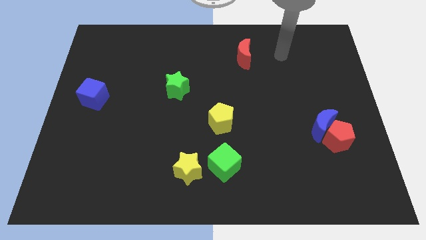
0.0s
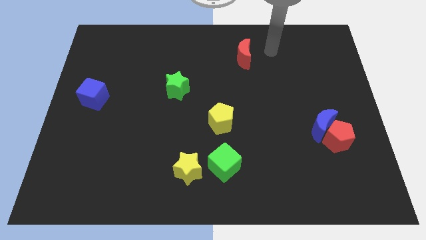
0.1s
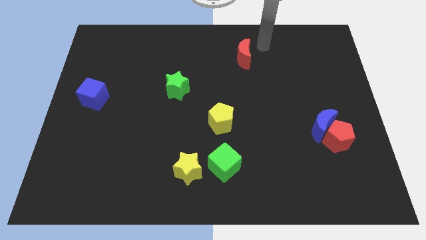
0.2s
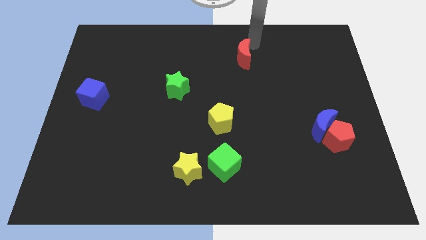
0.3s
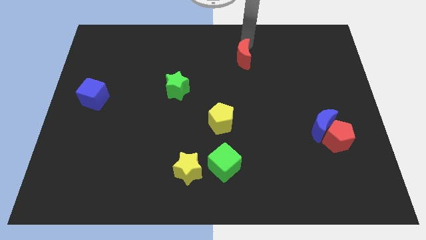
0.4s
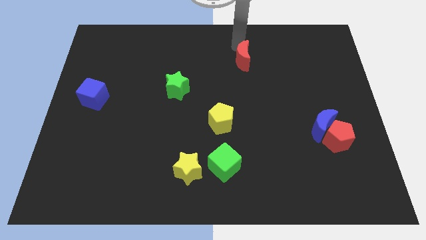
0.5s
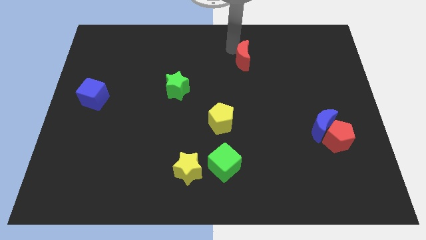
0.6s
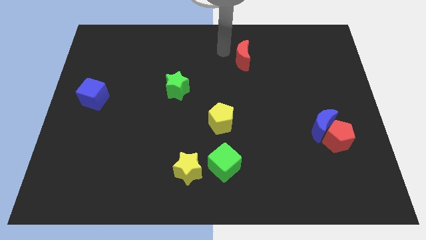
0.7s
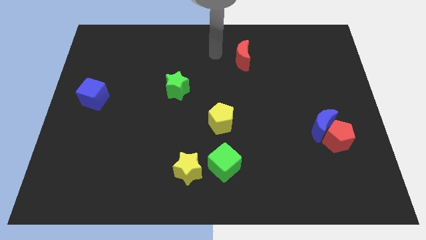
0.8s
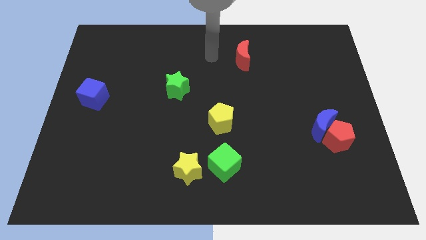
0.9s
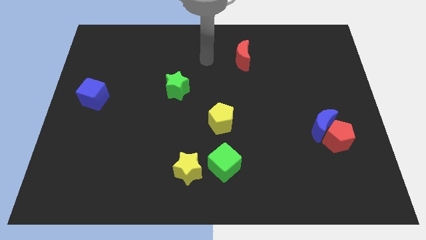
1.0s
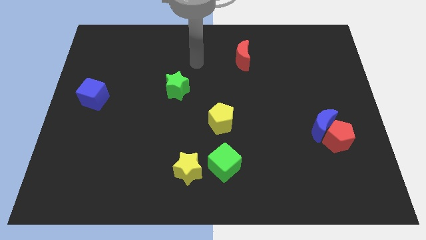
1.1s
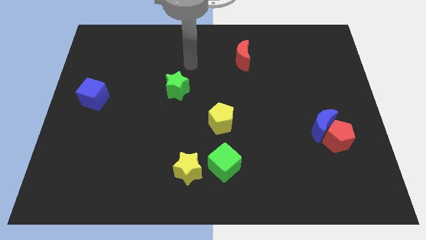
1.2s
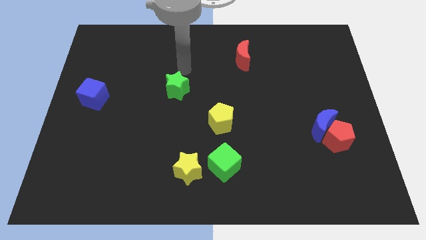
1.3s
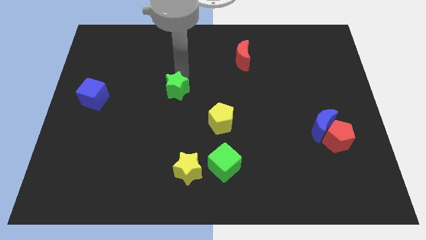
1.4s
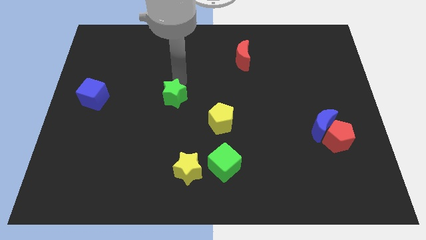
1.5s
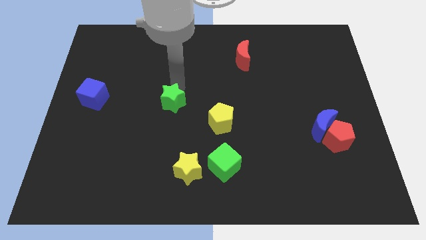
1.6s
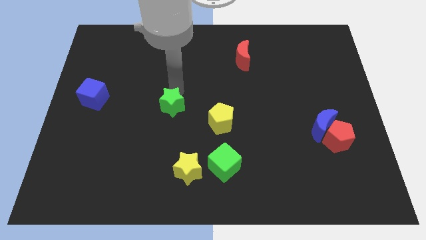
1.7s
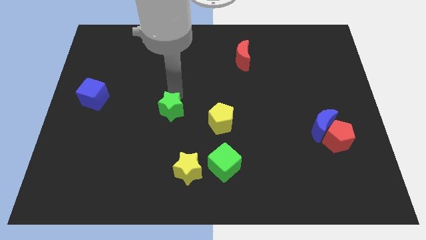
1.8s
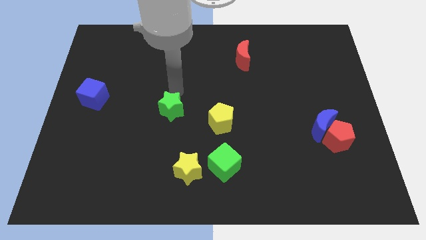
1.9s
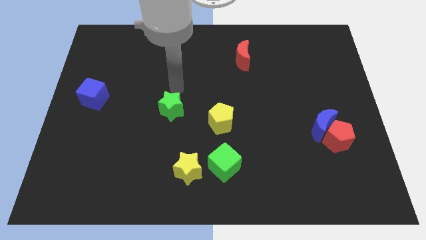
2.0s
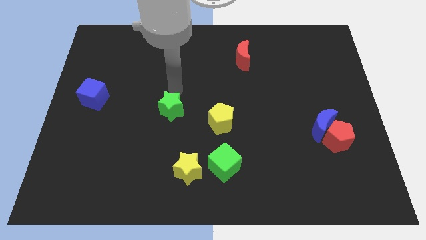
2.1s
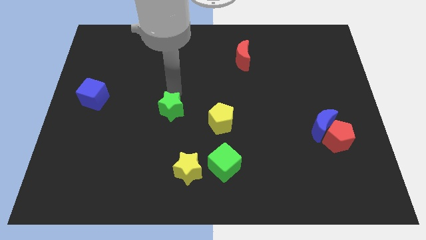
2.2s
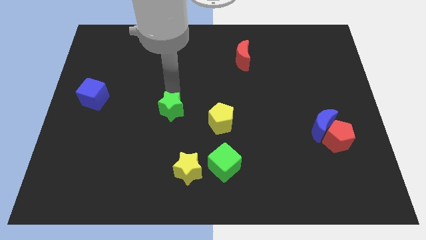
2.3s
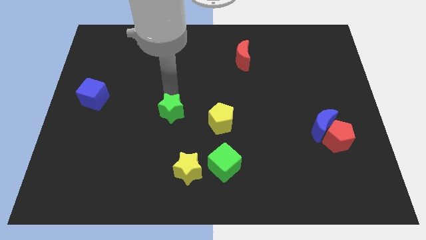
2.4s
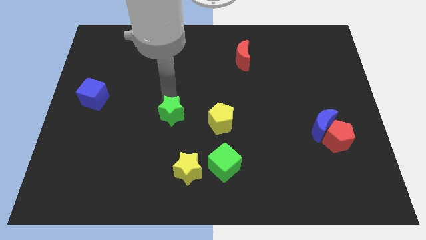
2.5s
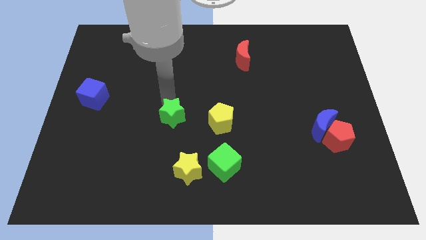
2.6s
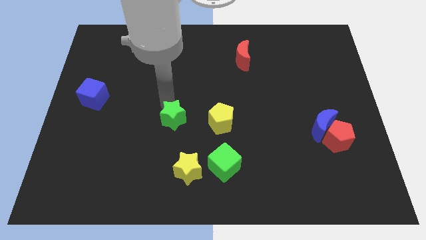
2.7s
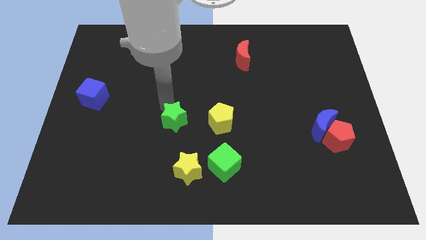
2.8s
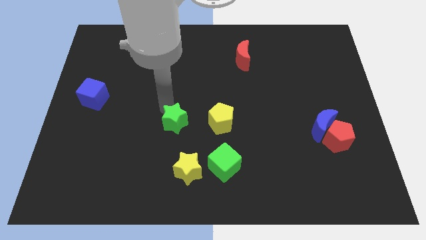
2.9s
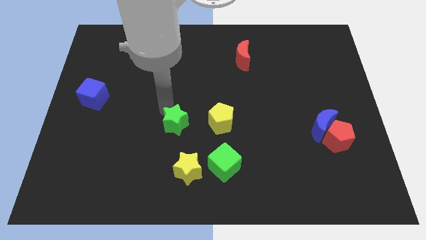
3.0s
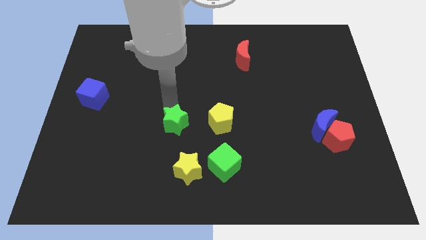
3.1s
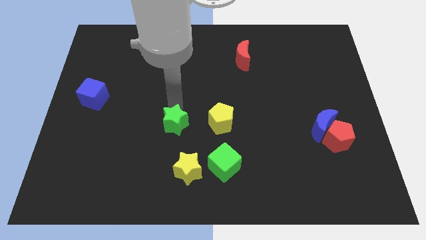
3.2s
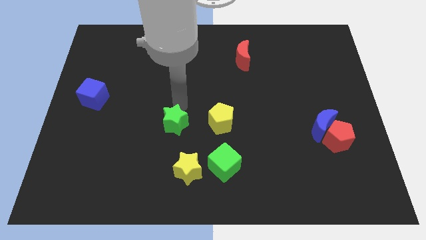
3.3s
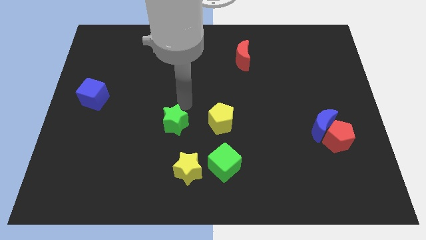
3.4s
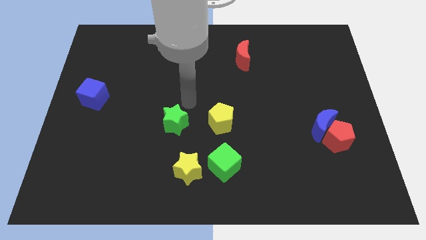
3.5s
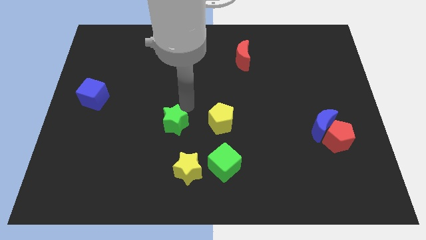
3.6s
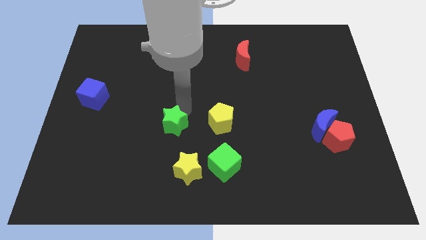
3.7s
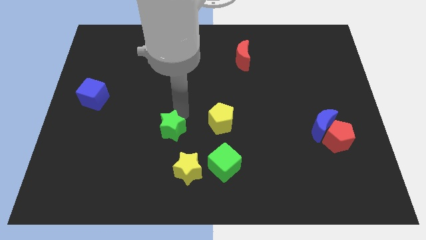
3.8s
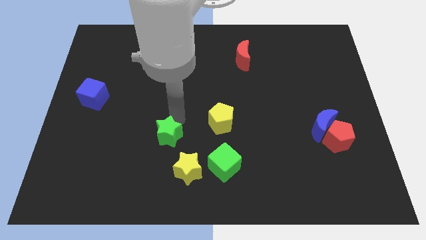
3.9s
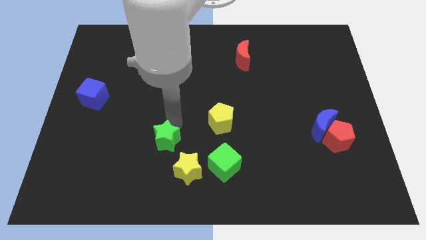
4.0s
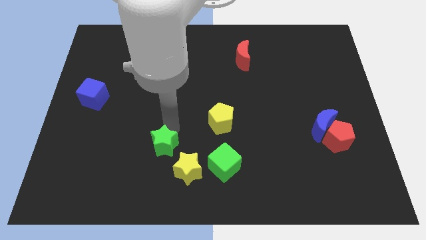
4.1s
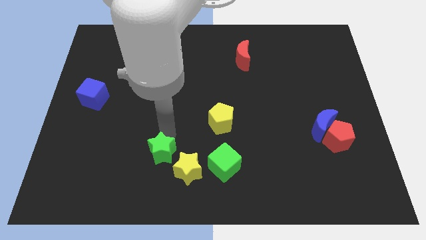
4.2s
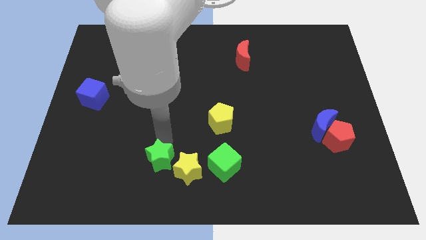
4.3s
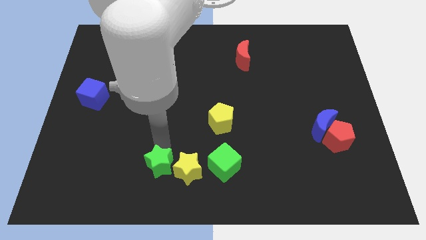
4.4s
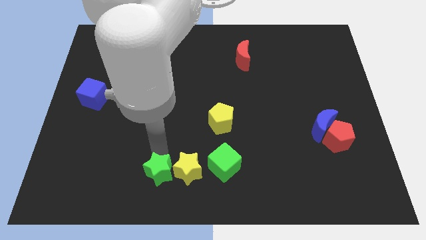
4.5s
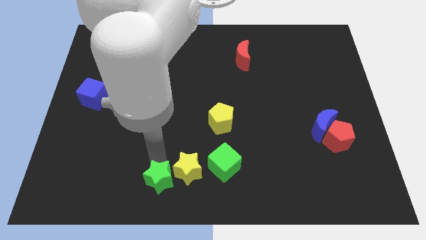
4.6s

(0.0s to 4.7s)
move the green star to the bottom

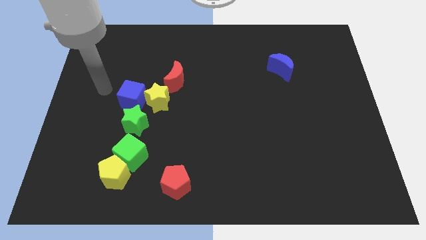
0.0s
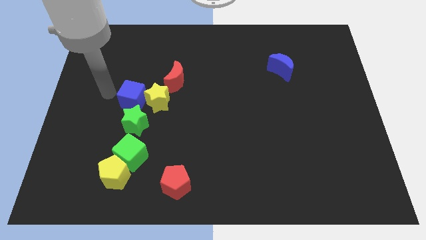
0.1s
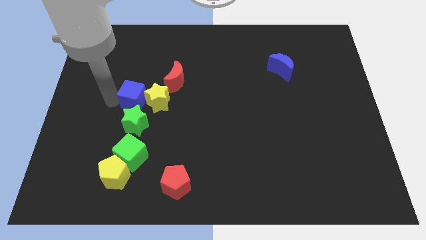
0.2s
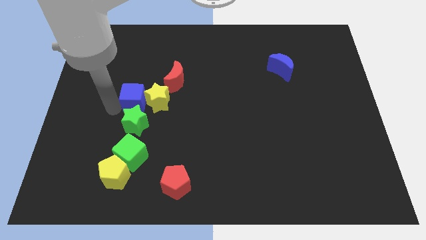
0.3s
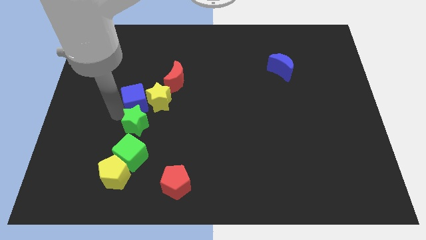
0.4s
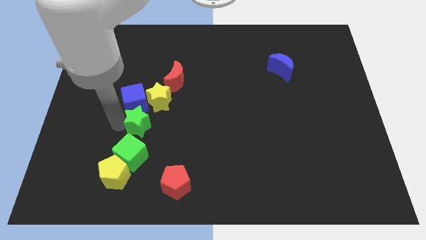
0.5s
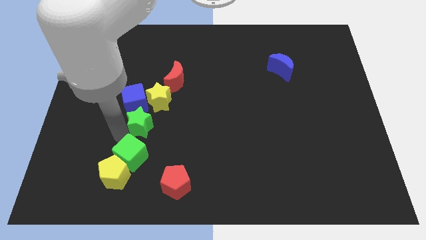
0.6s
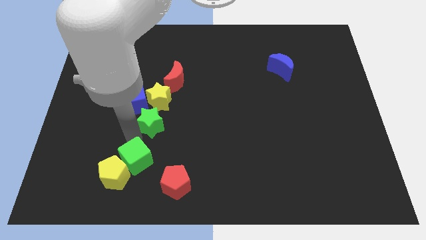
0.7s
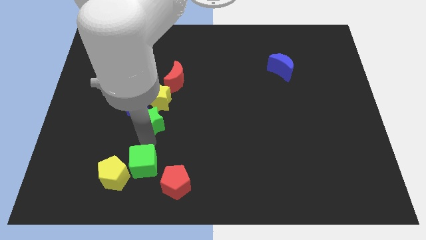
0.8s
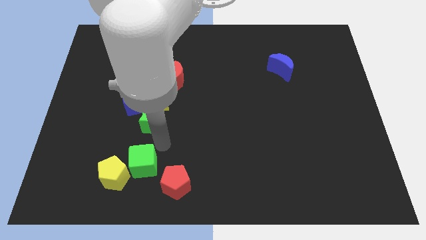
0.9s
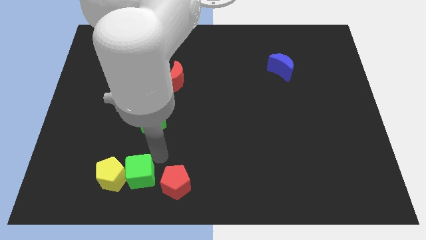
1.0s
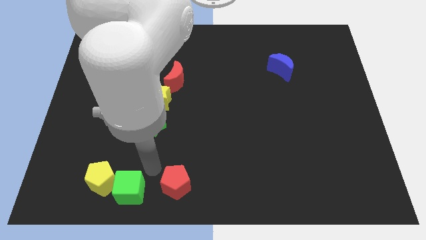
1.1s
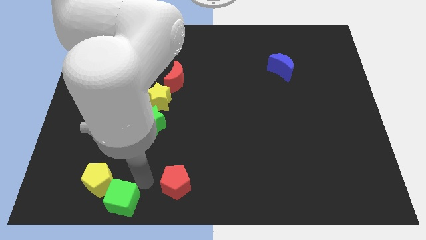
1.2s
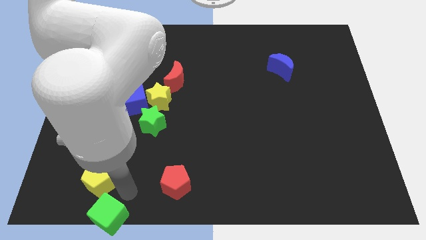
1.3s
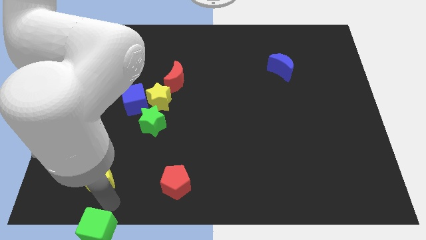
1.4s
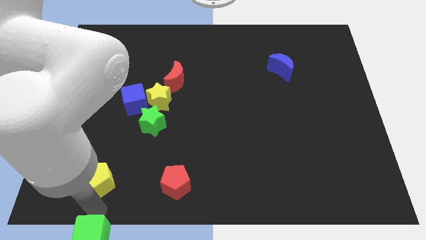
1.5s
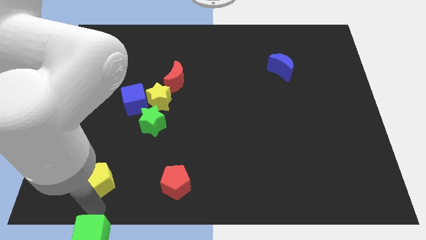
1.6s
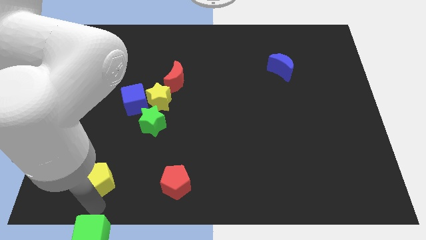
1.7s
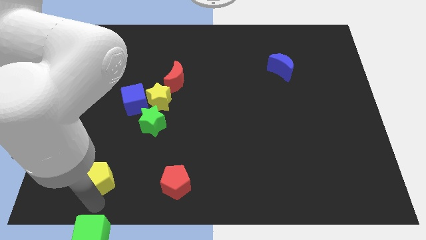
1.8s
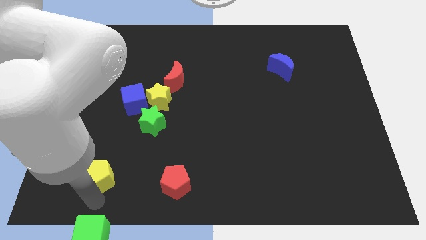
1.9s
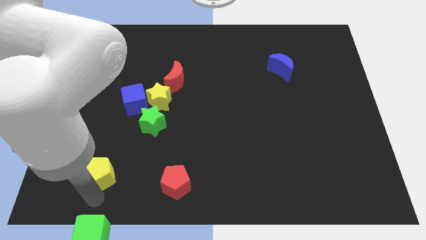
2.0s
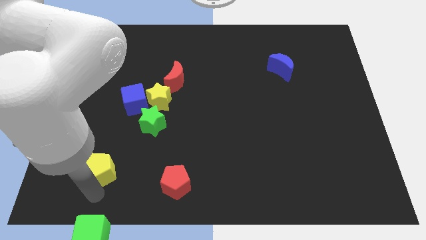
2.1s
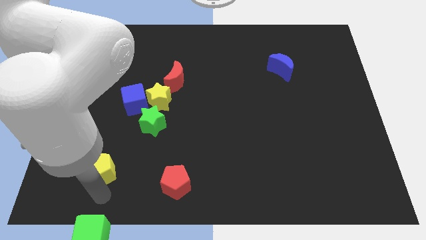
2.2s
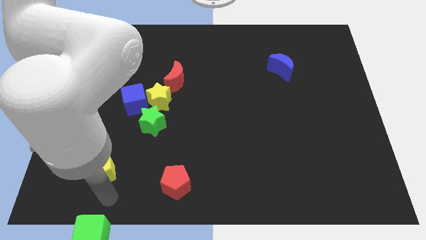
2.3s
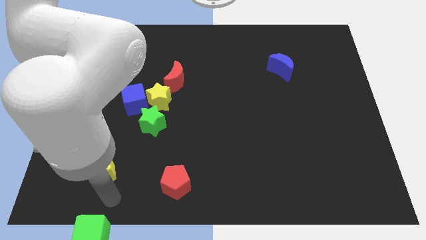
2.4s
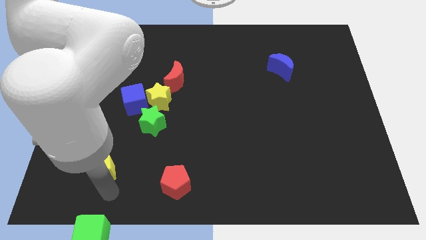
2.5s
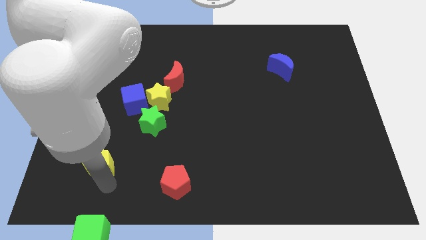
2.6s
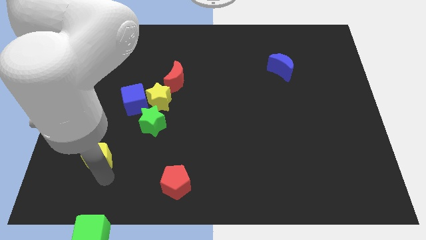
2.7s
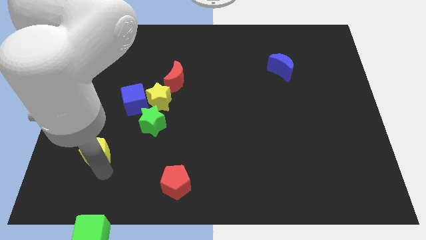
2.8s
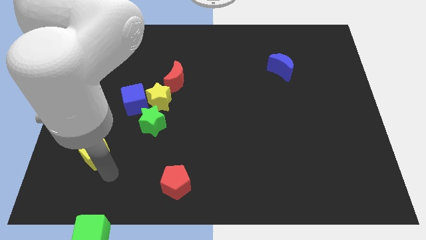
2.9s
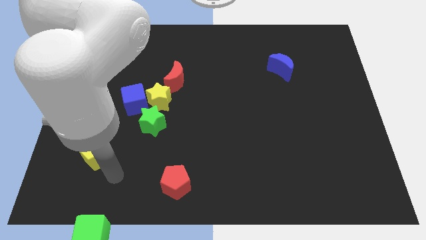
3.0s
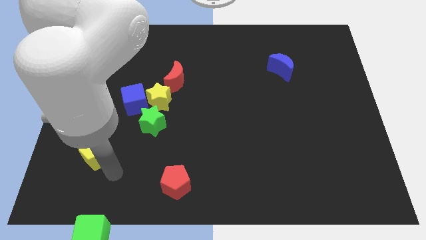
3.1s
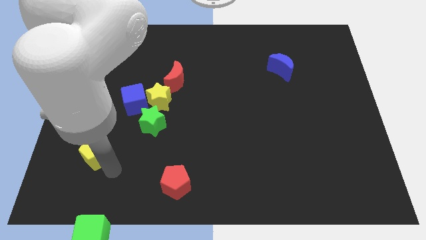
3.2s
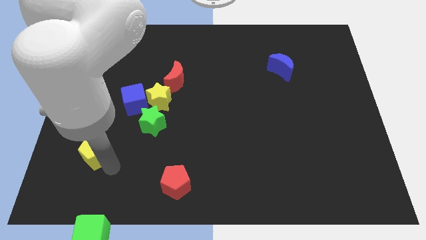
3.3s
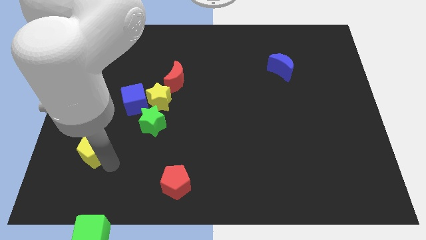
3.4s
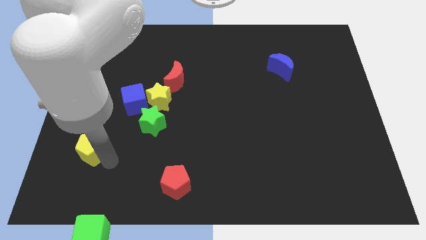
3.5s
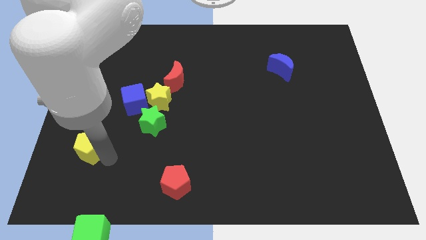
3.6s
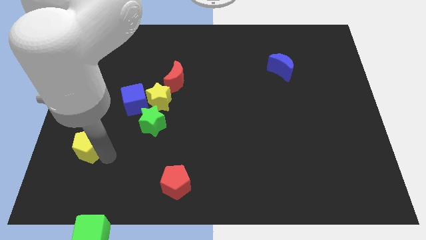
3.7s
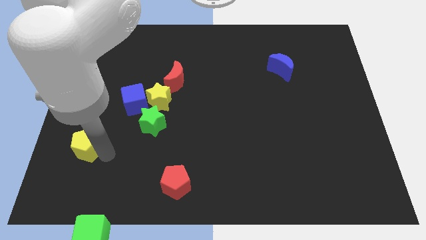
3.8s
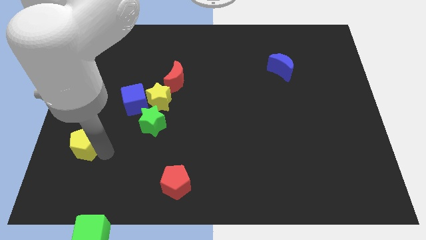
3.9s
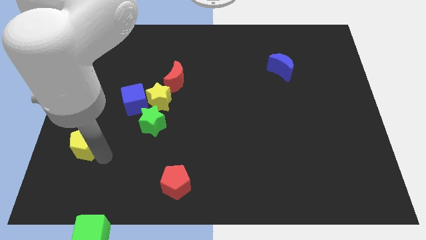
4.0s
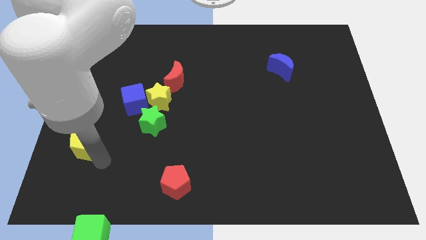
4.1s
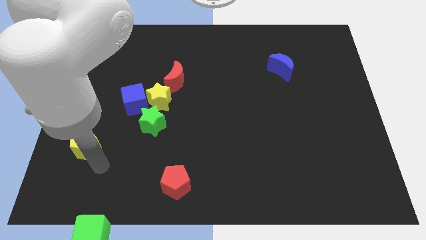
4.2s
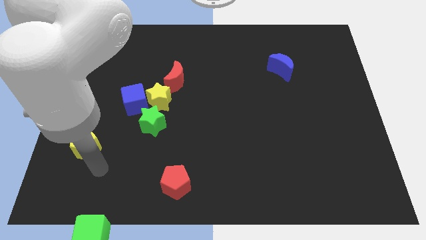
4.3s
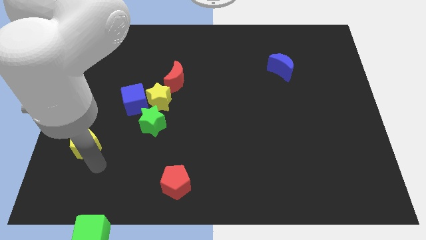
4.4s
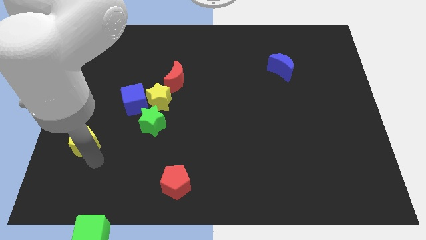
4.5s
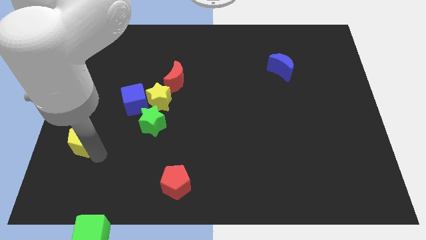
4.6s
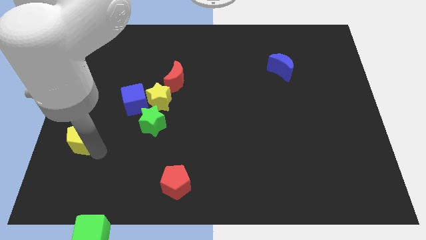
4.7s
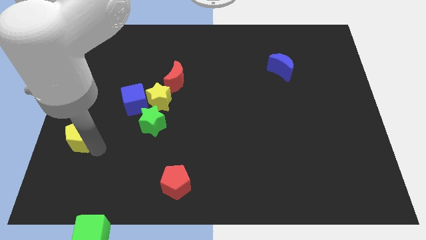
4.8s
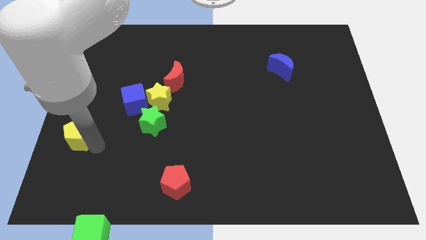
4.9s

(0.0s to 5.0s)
push the yellow pentagon to the center left
